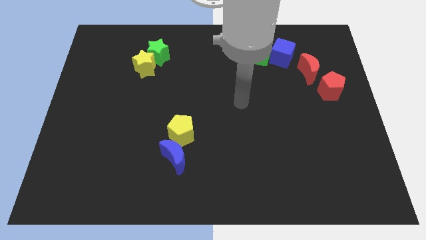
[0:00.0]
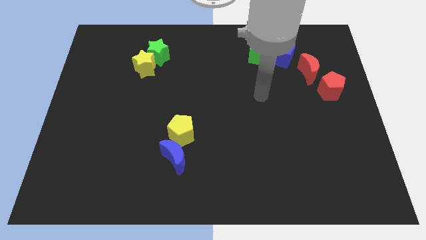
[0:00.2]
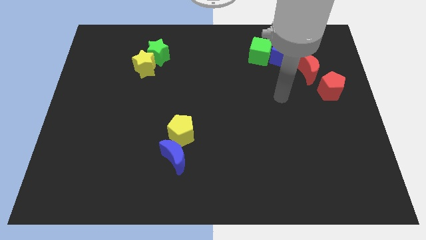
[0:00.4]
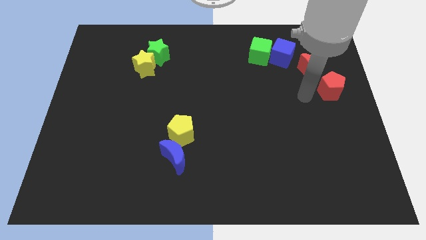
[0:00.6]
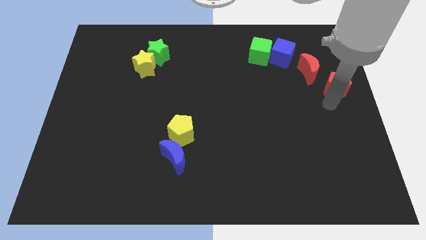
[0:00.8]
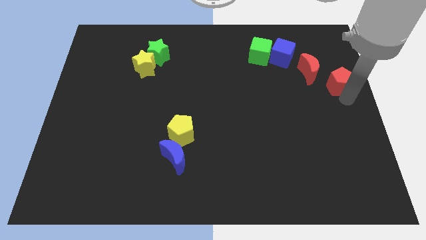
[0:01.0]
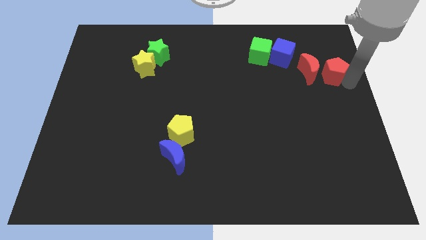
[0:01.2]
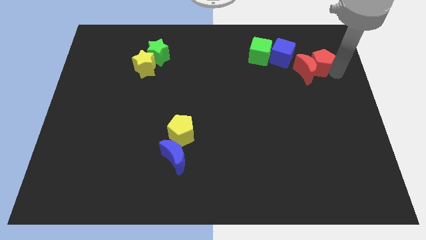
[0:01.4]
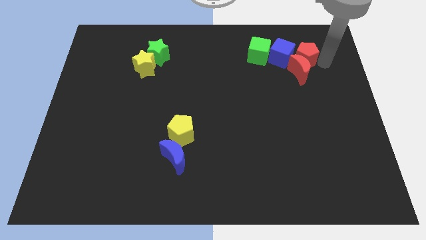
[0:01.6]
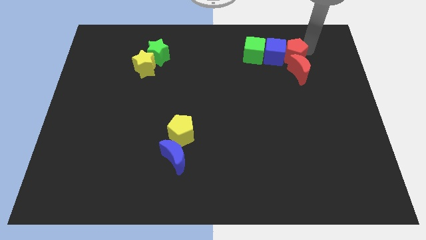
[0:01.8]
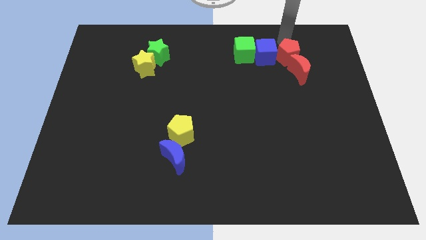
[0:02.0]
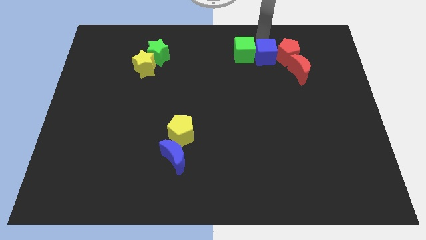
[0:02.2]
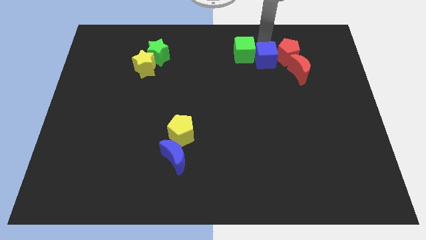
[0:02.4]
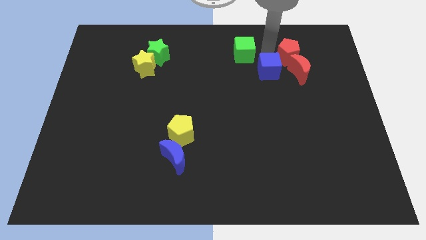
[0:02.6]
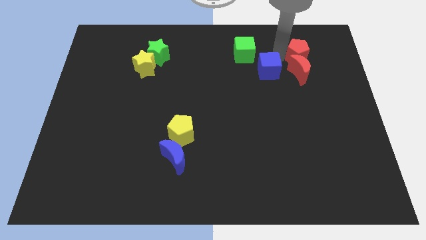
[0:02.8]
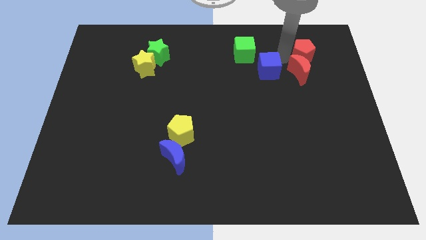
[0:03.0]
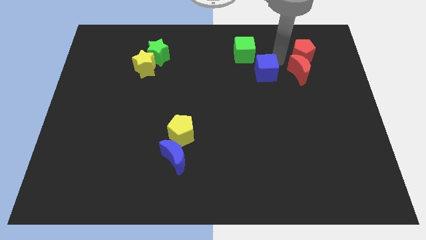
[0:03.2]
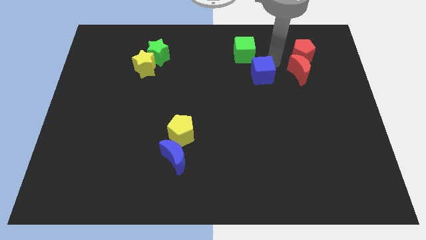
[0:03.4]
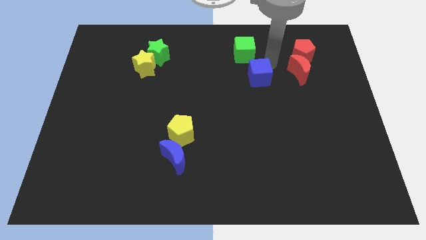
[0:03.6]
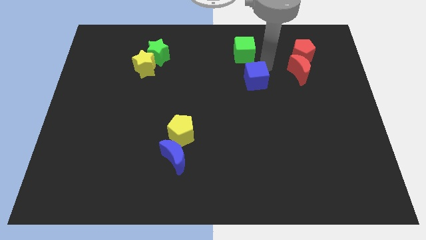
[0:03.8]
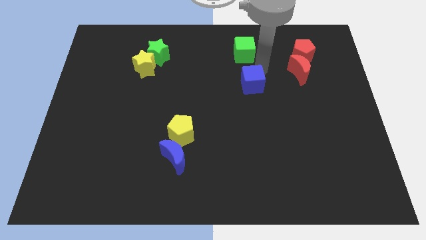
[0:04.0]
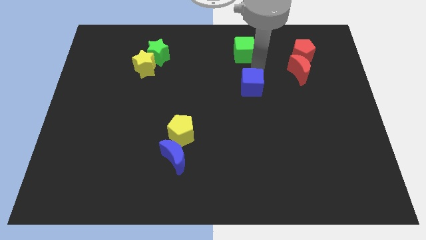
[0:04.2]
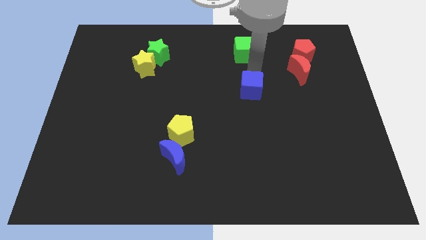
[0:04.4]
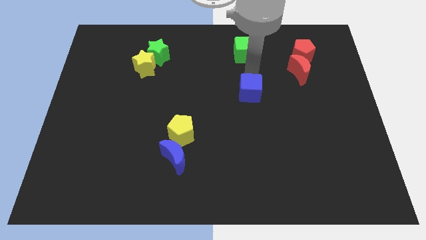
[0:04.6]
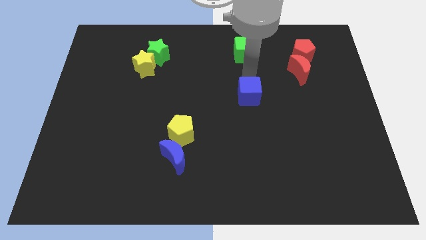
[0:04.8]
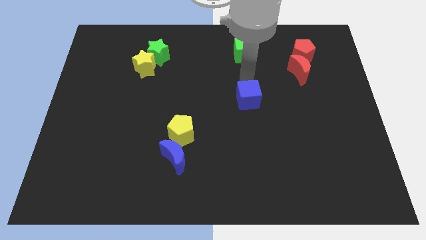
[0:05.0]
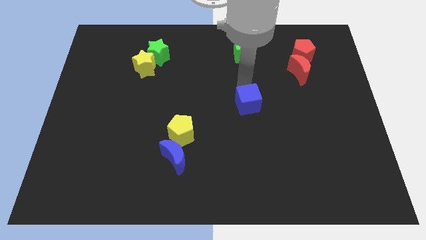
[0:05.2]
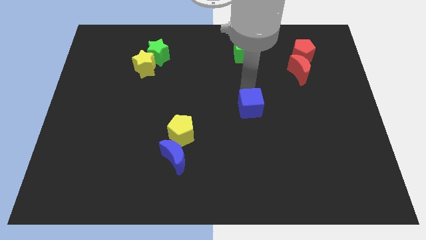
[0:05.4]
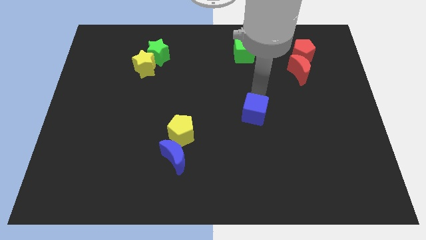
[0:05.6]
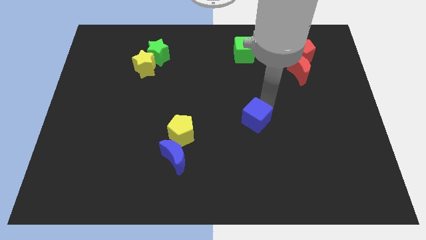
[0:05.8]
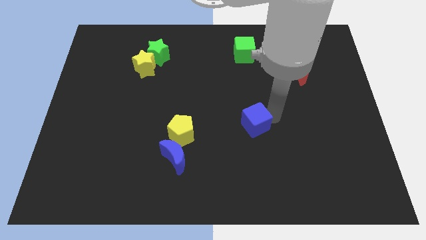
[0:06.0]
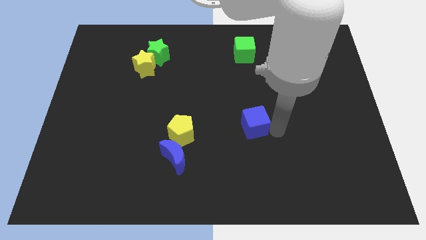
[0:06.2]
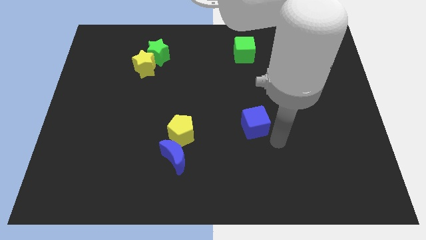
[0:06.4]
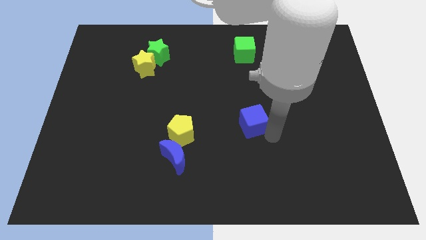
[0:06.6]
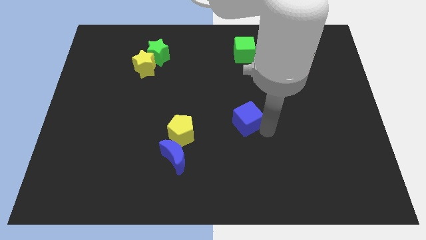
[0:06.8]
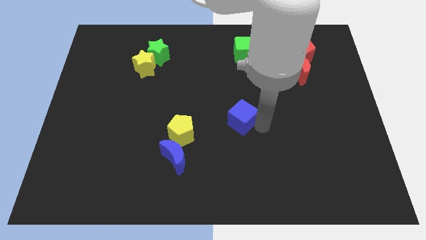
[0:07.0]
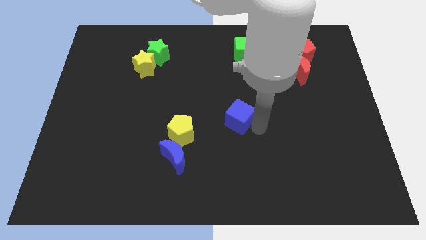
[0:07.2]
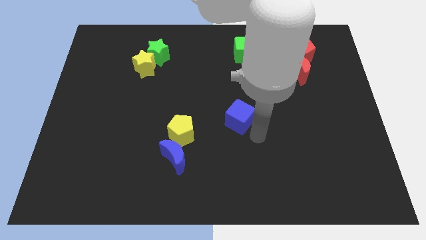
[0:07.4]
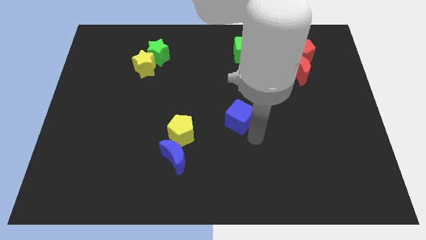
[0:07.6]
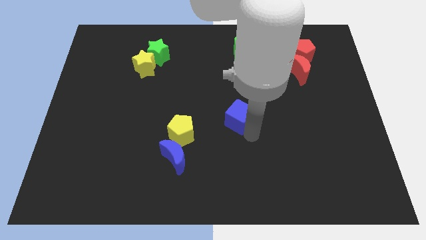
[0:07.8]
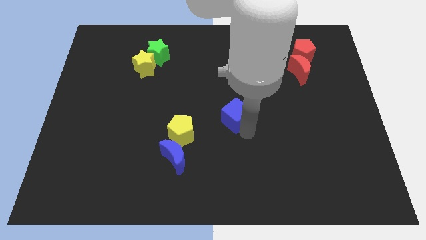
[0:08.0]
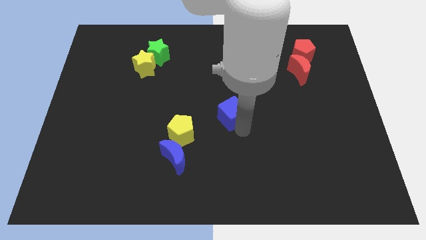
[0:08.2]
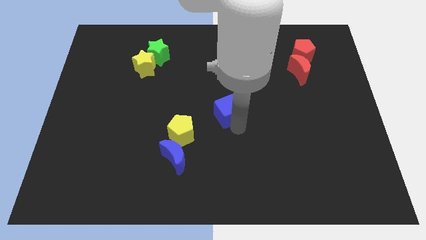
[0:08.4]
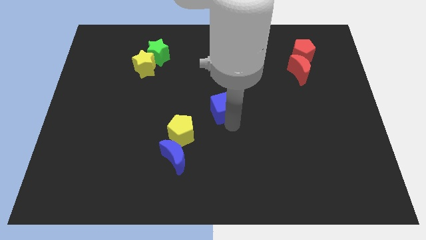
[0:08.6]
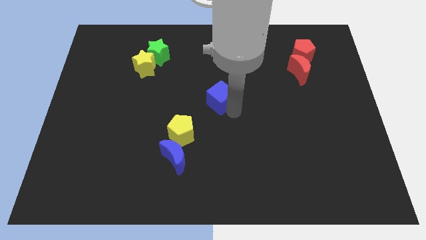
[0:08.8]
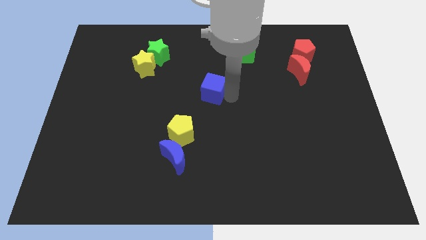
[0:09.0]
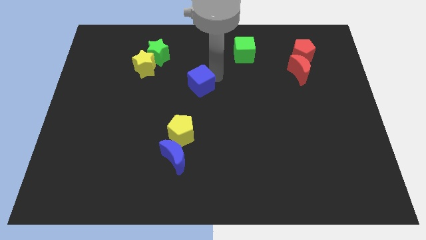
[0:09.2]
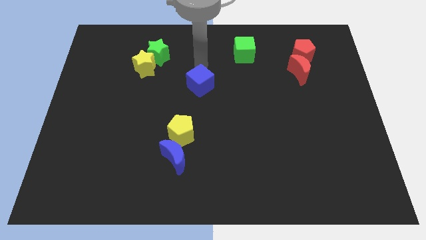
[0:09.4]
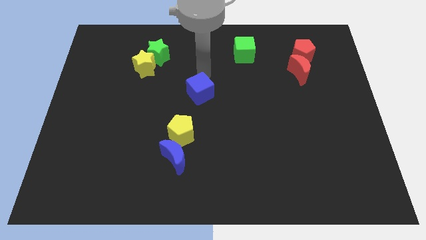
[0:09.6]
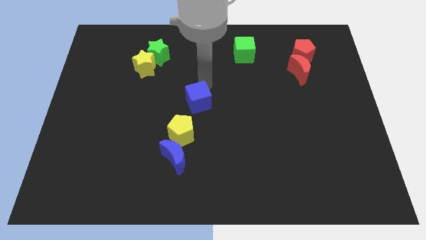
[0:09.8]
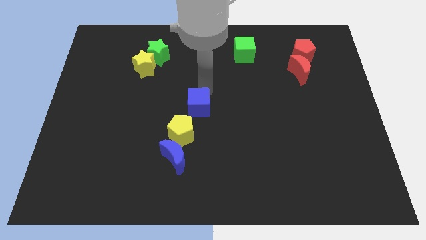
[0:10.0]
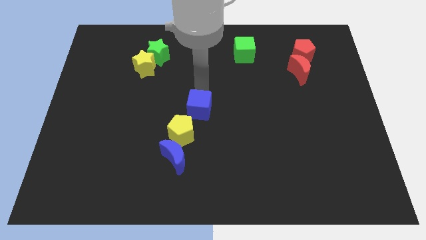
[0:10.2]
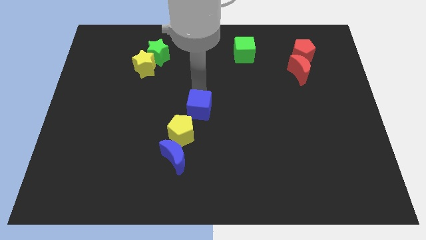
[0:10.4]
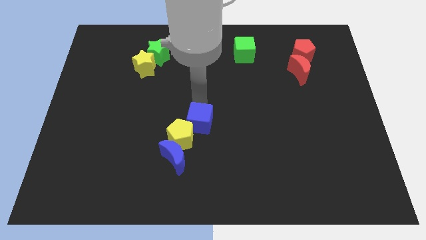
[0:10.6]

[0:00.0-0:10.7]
push the blue cube to the top right of the blue moon
